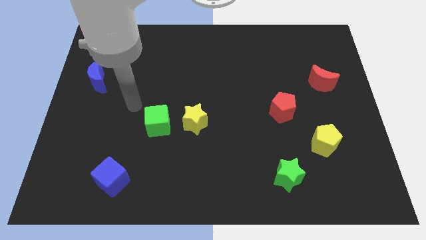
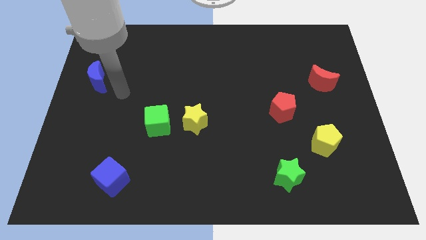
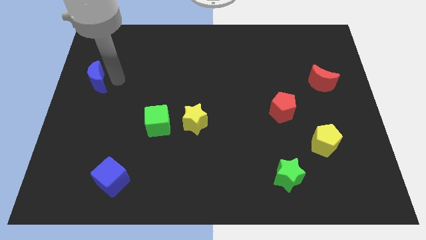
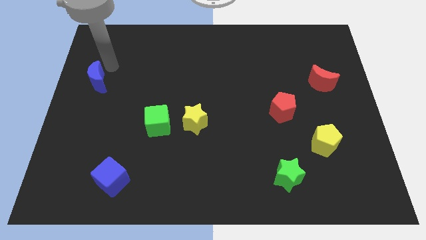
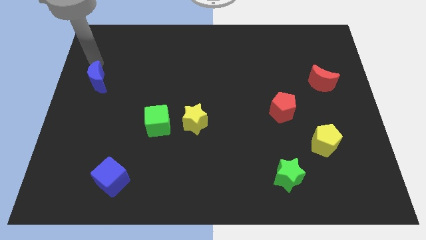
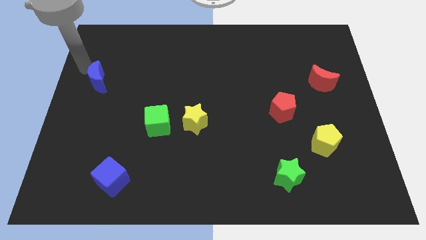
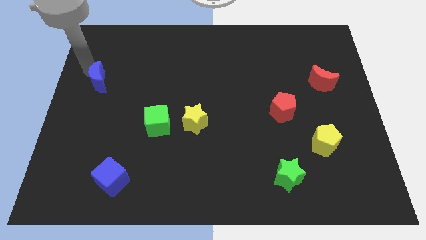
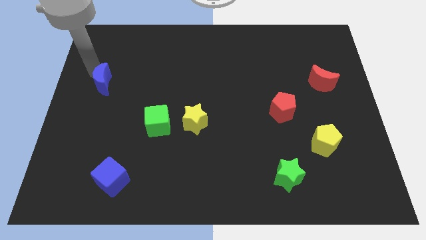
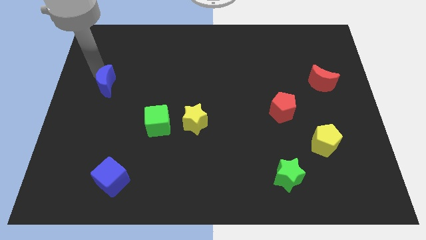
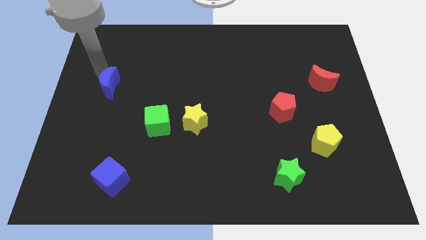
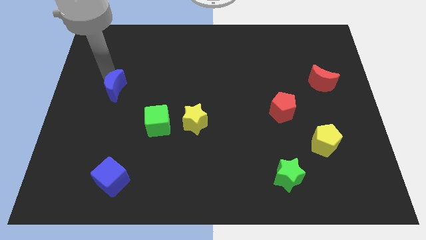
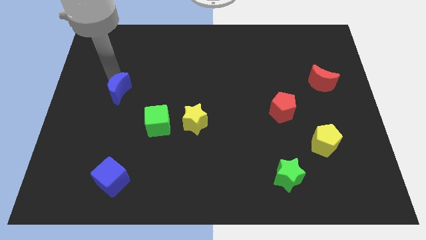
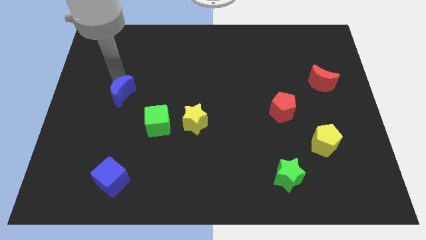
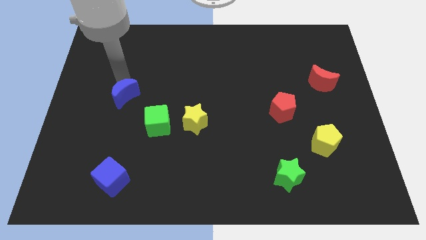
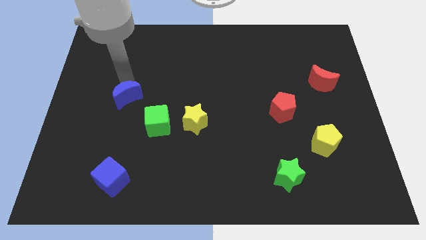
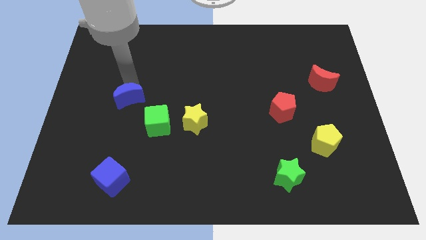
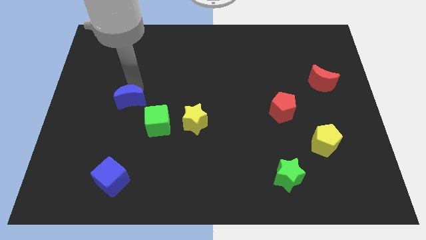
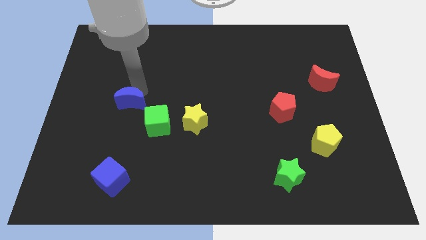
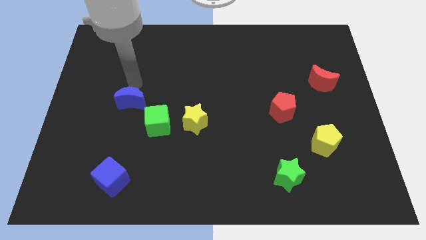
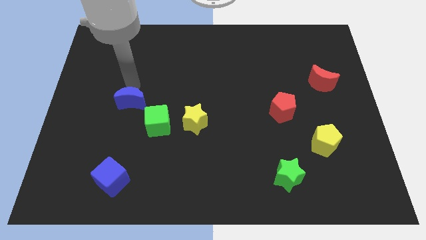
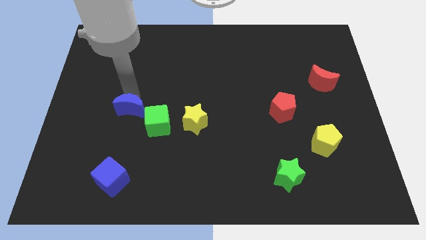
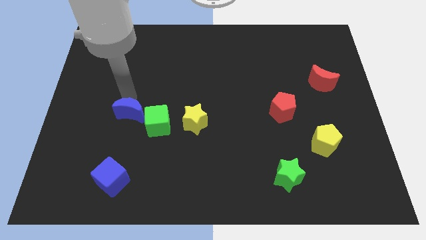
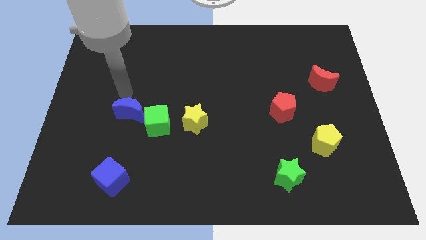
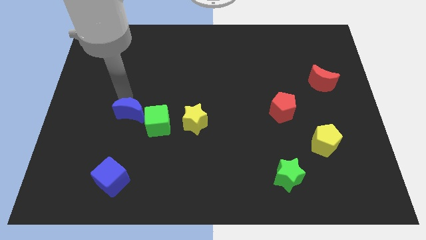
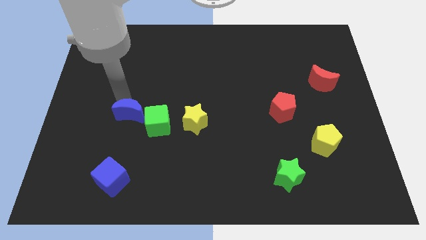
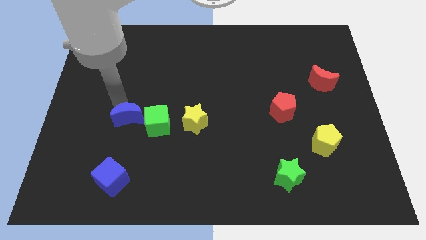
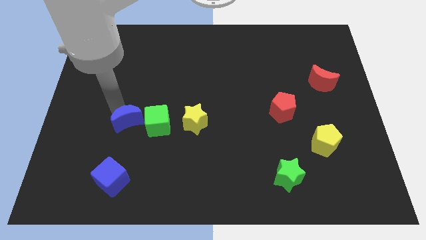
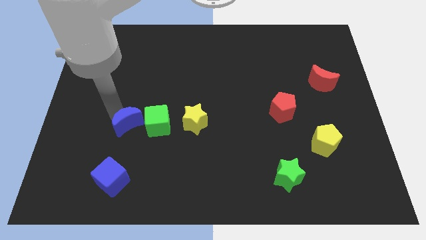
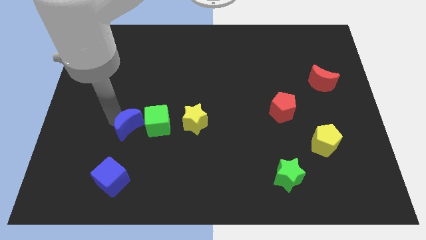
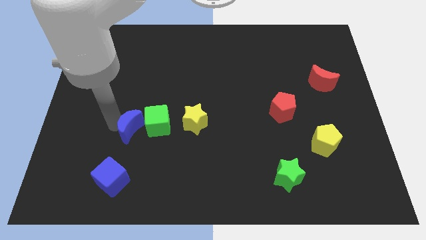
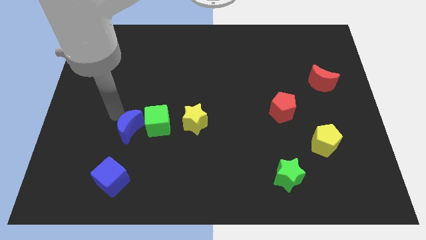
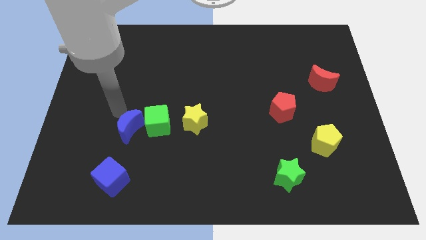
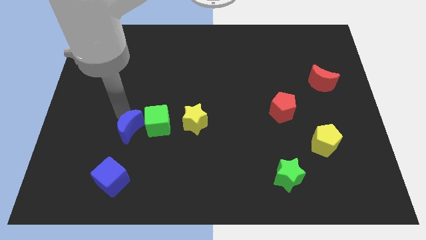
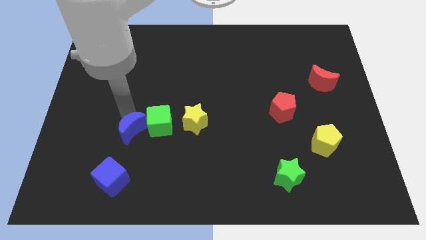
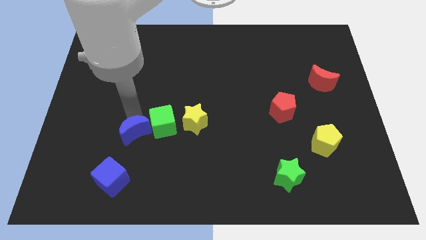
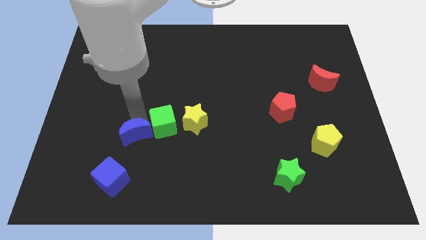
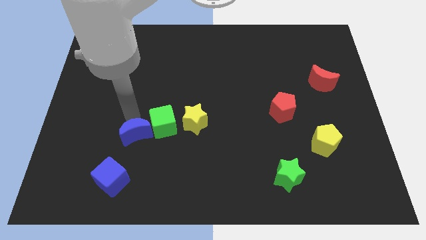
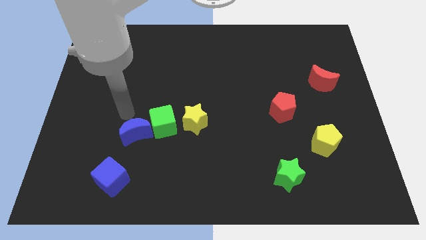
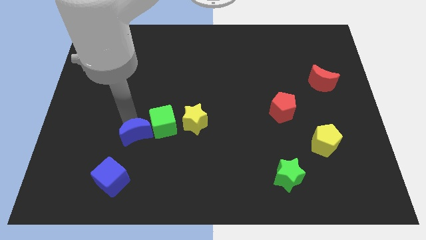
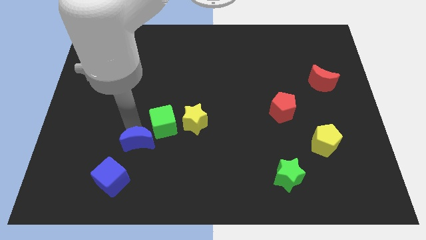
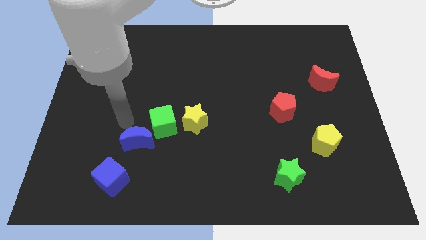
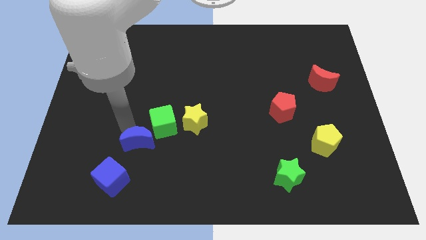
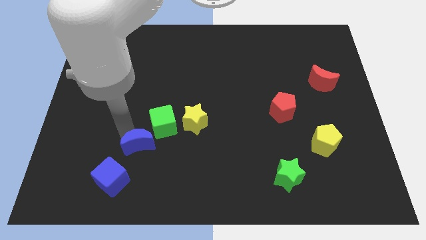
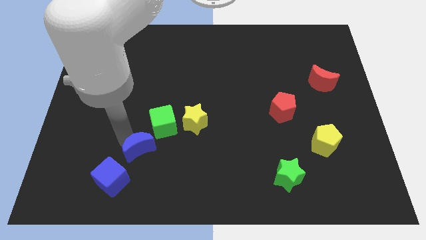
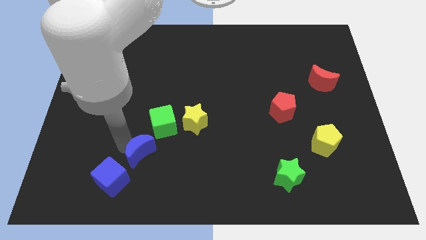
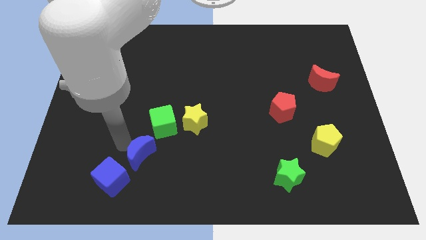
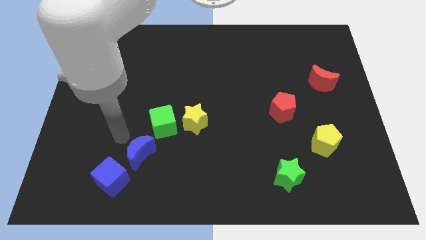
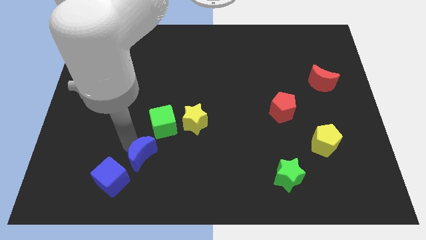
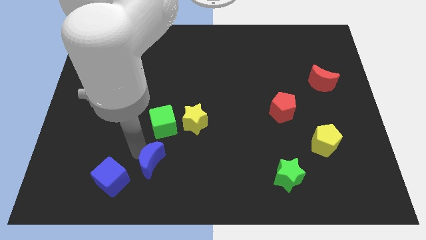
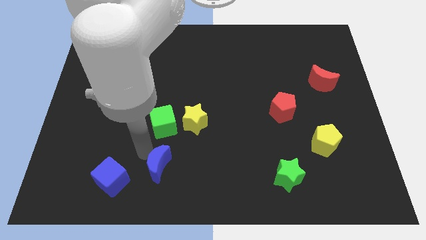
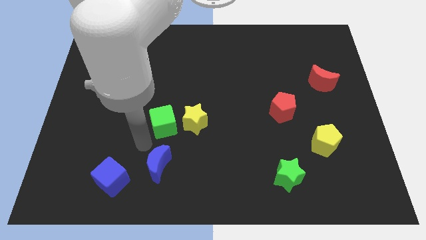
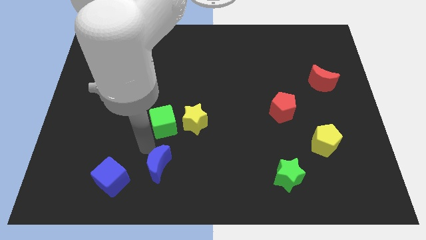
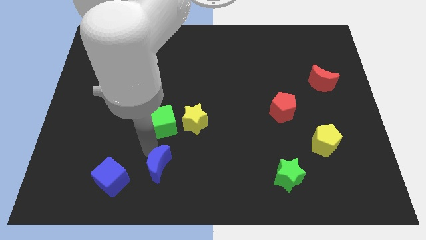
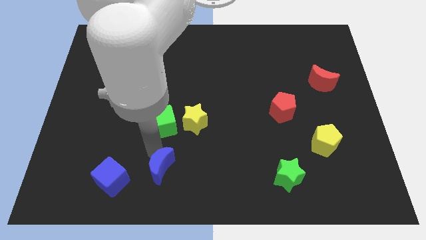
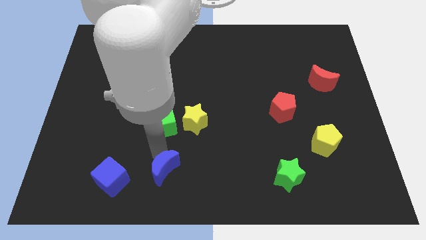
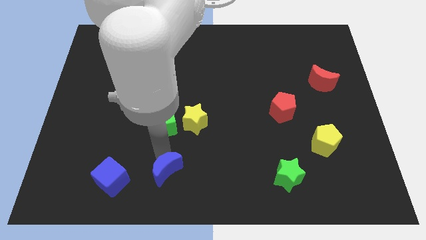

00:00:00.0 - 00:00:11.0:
put the blue moon to the bottom side

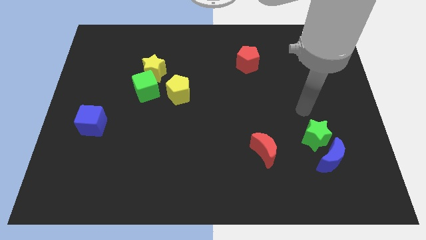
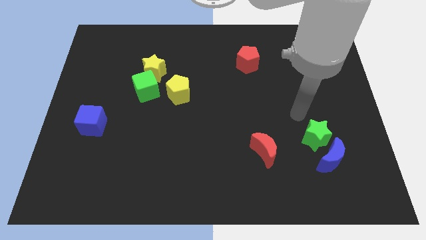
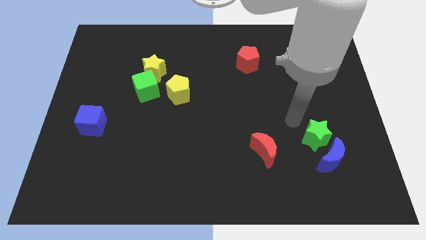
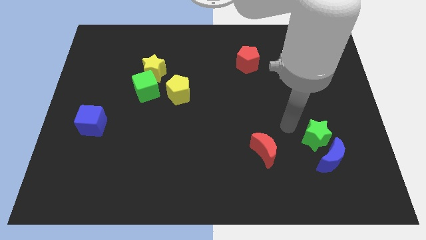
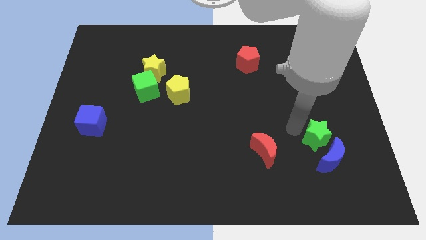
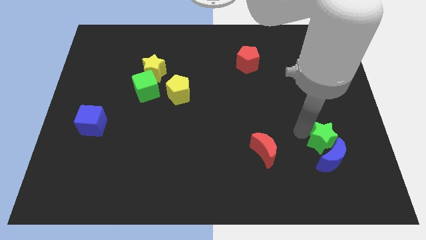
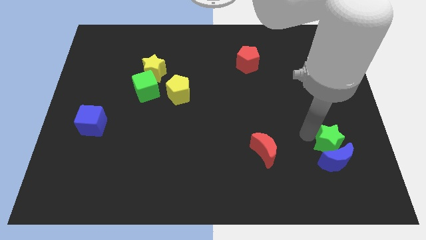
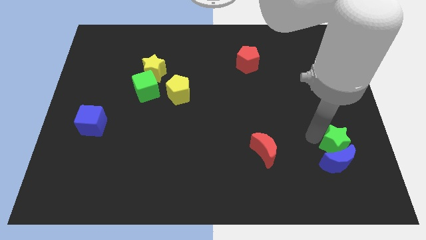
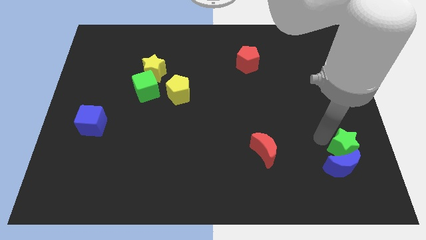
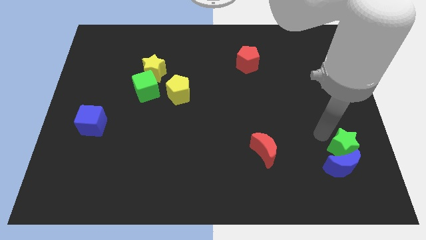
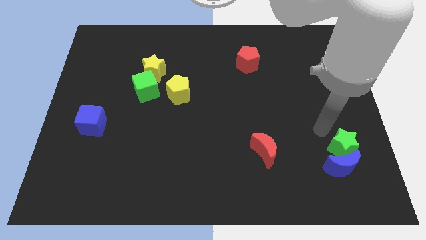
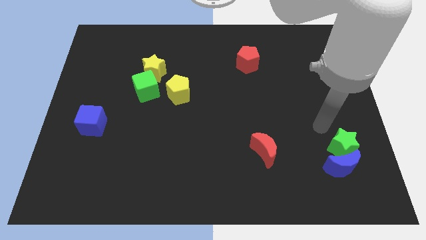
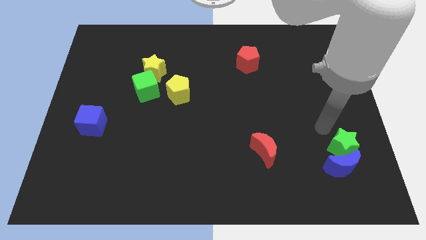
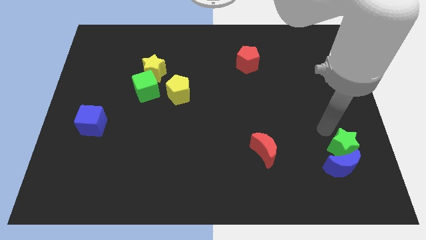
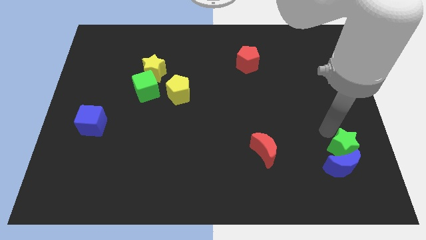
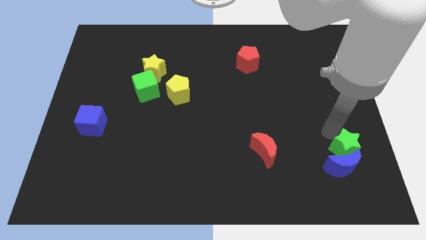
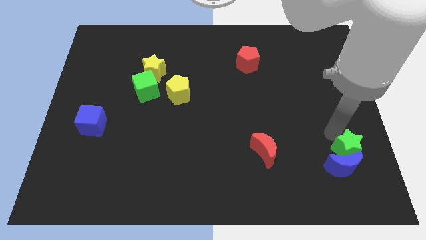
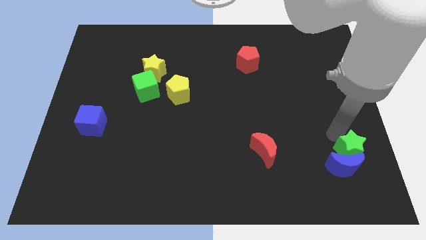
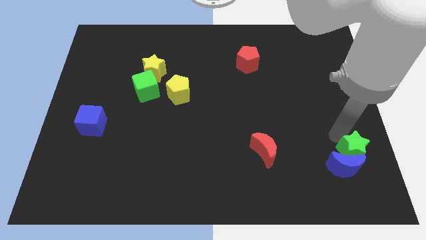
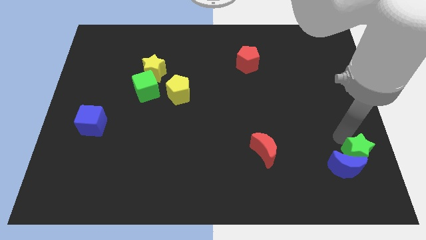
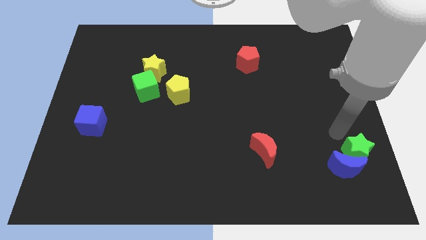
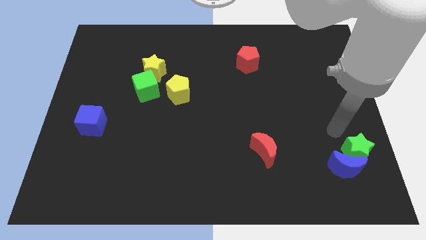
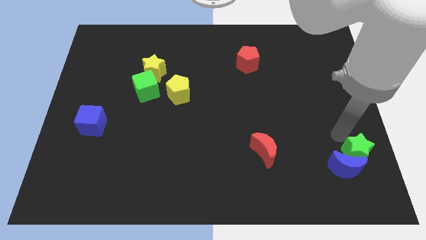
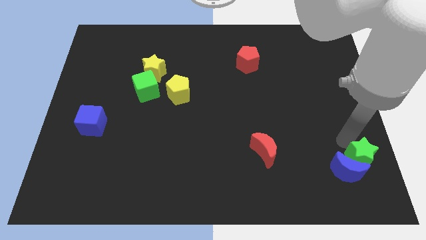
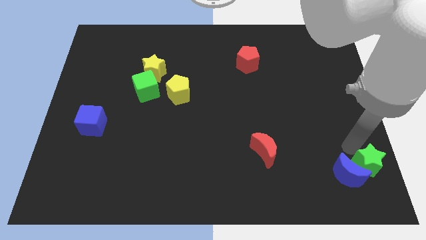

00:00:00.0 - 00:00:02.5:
move the green star to the bottom right corner
